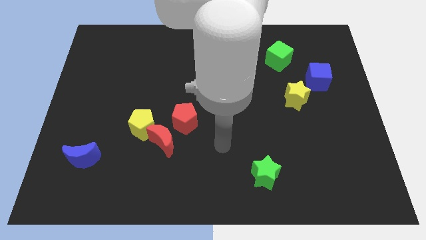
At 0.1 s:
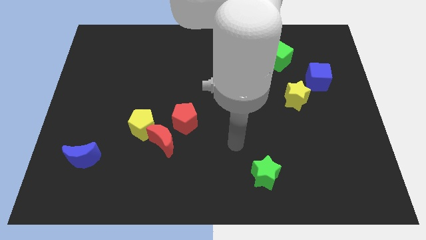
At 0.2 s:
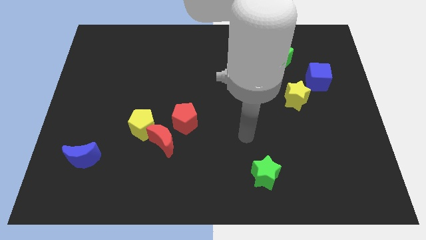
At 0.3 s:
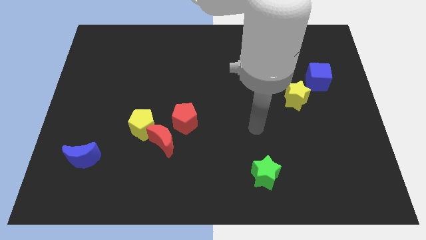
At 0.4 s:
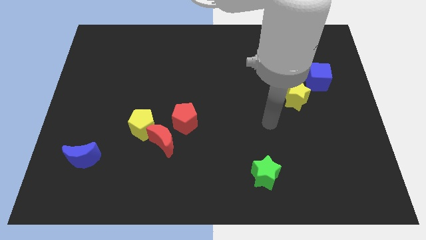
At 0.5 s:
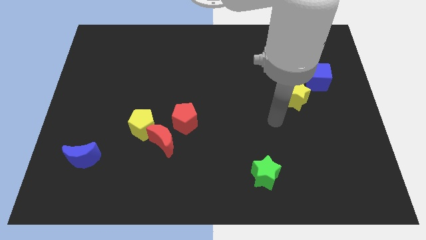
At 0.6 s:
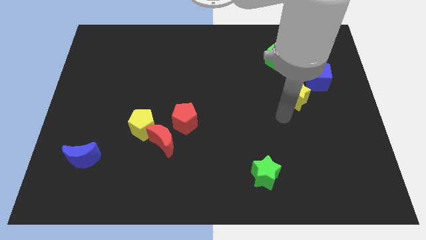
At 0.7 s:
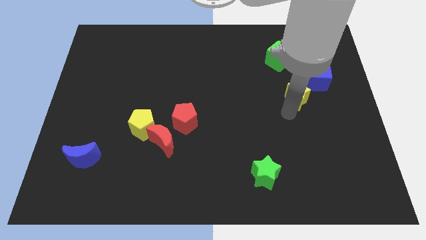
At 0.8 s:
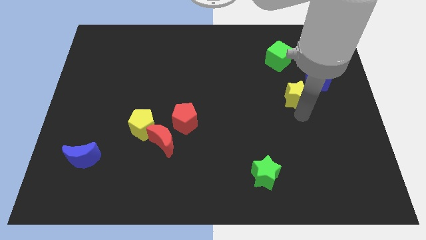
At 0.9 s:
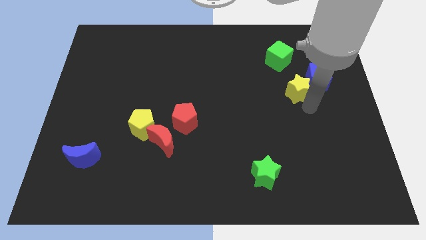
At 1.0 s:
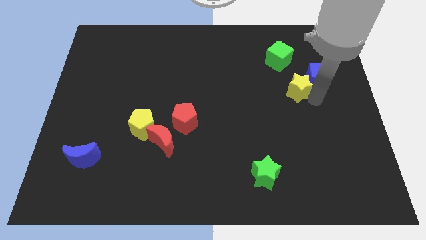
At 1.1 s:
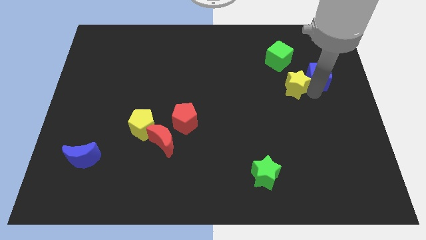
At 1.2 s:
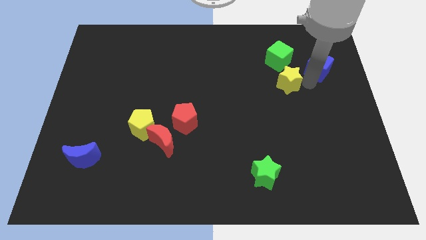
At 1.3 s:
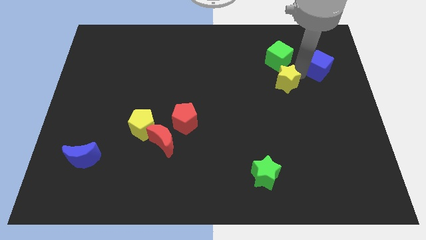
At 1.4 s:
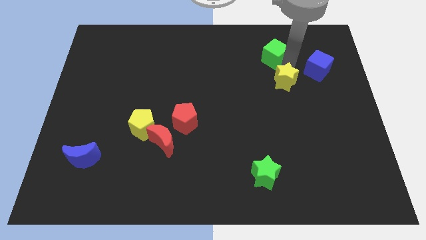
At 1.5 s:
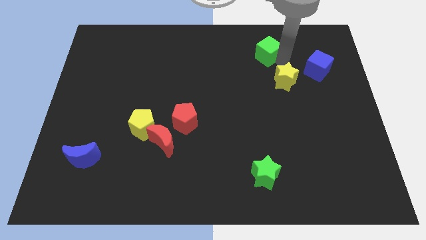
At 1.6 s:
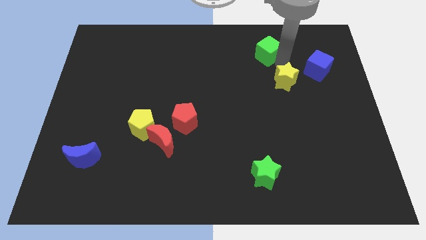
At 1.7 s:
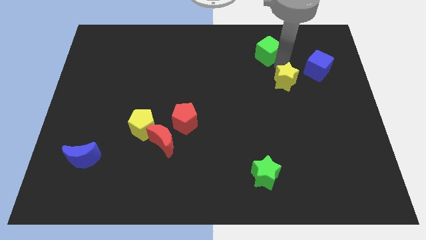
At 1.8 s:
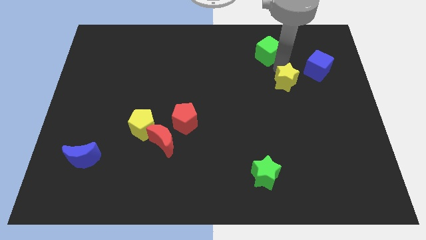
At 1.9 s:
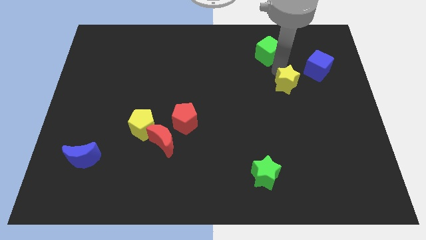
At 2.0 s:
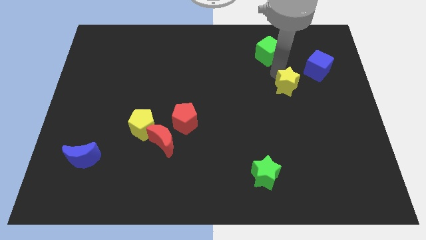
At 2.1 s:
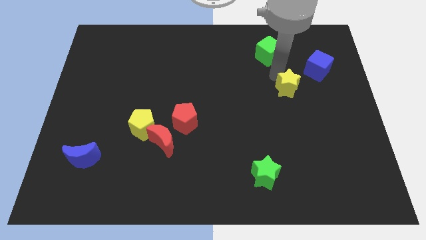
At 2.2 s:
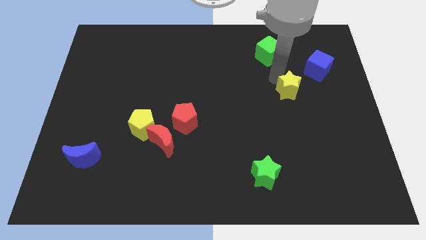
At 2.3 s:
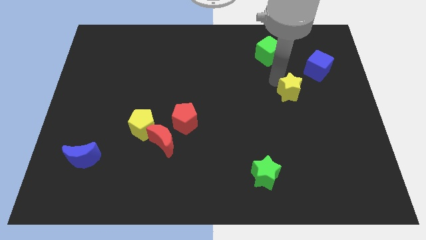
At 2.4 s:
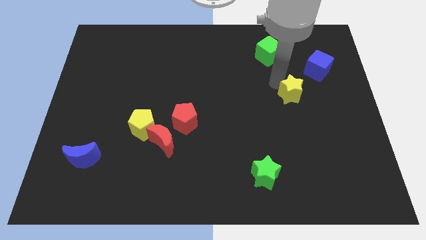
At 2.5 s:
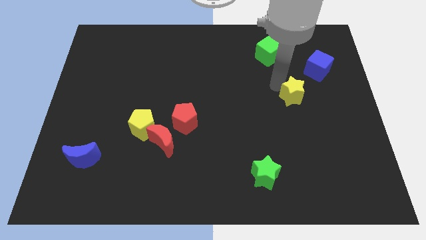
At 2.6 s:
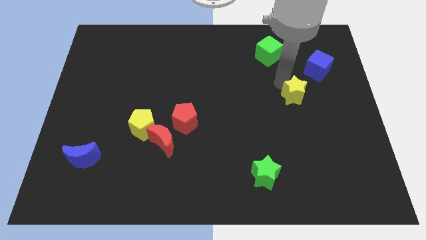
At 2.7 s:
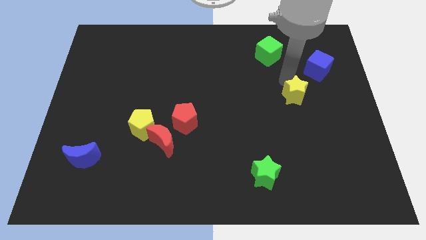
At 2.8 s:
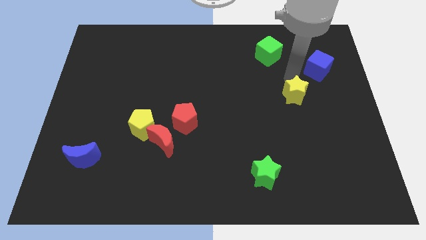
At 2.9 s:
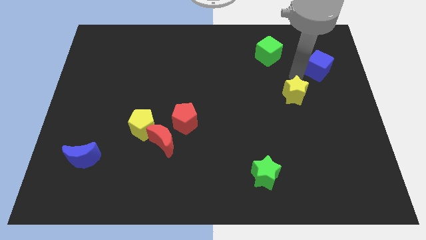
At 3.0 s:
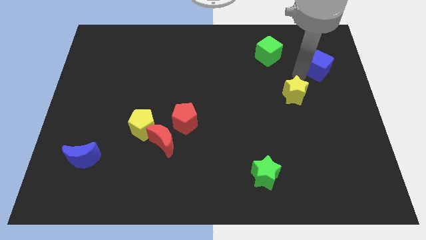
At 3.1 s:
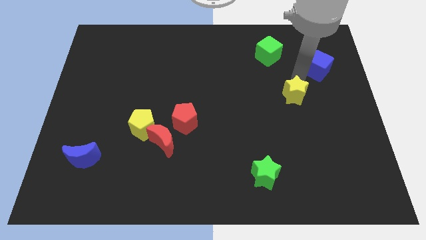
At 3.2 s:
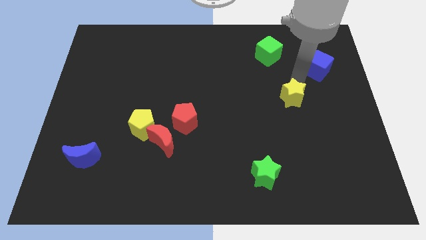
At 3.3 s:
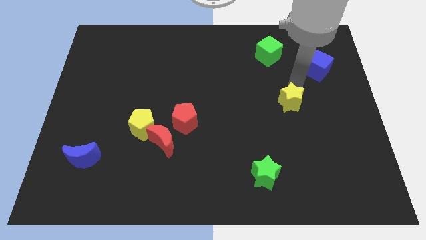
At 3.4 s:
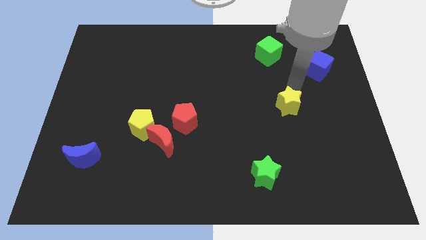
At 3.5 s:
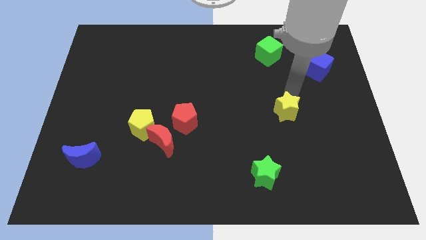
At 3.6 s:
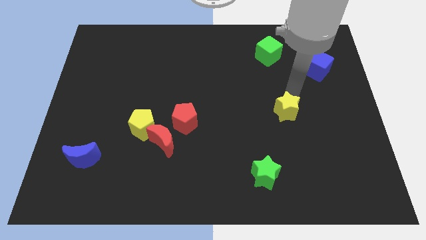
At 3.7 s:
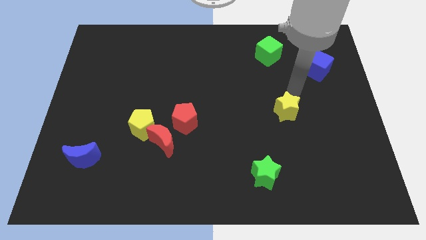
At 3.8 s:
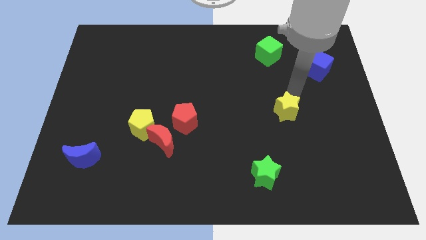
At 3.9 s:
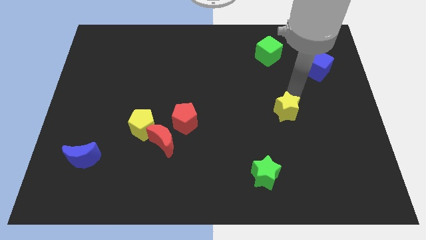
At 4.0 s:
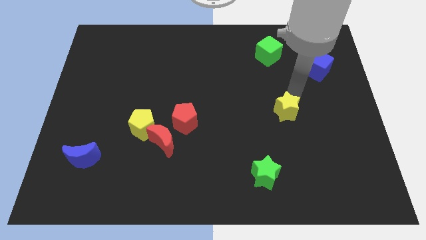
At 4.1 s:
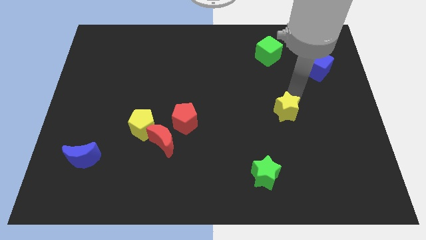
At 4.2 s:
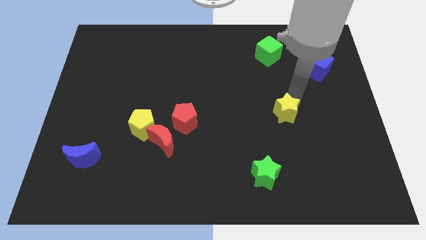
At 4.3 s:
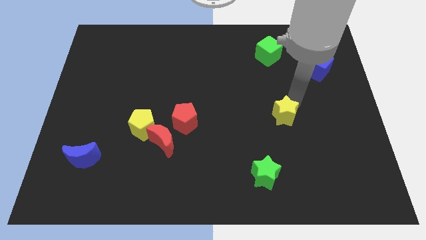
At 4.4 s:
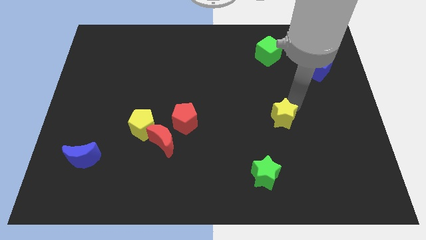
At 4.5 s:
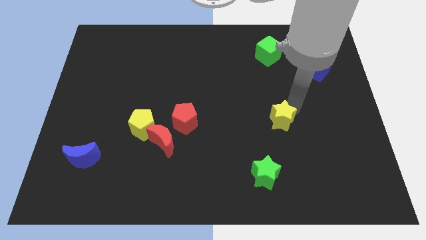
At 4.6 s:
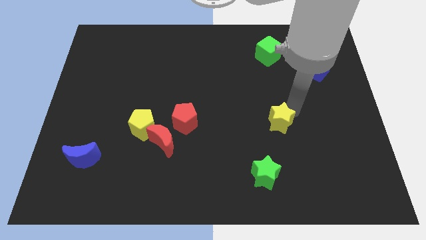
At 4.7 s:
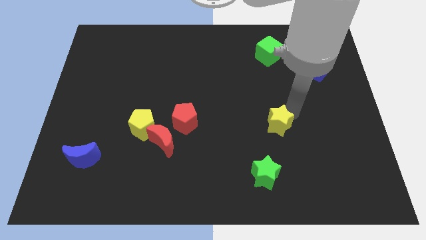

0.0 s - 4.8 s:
put the yellow star above the green star

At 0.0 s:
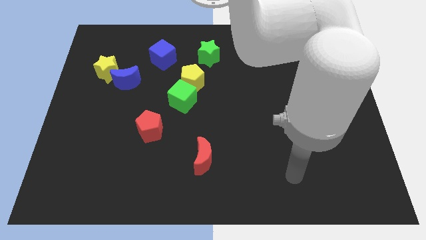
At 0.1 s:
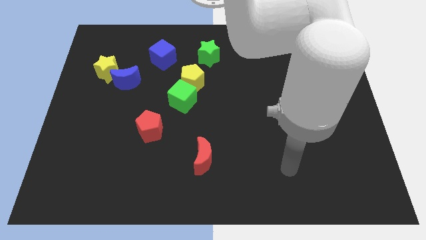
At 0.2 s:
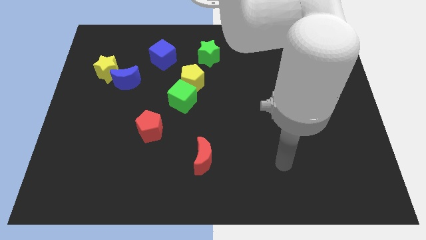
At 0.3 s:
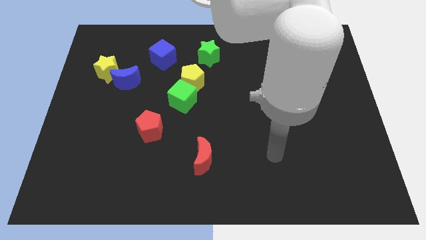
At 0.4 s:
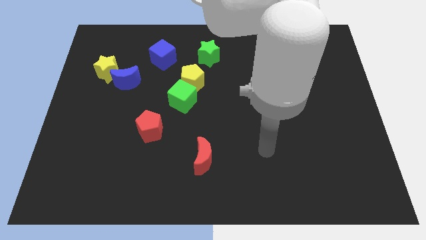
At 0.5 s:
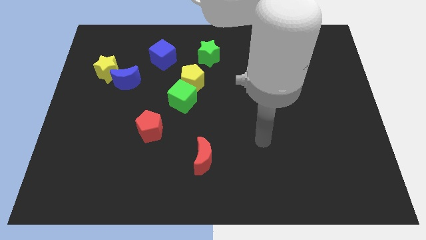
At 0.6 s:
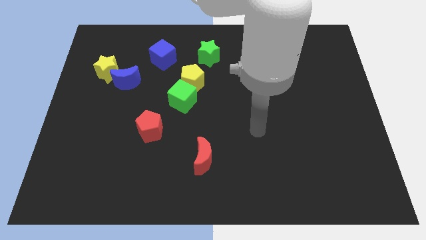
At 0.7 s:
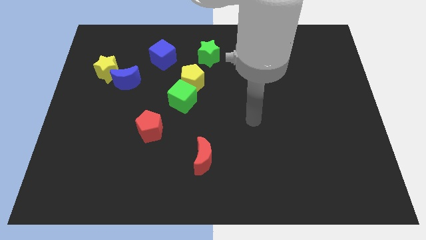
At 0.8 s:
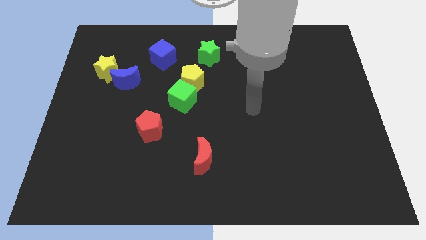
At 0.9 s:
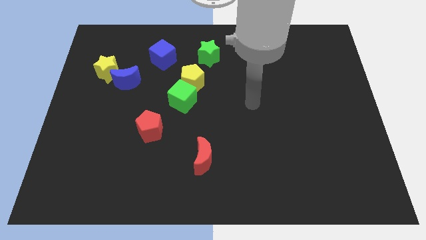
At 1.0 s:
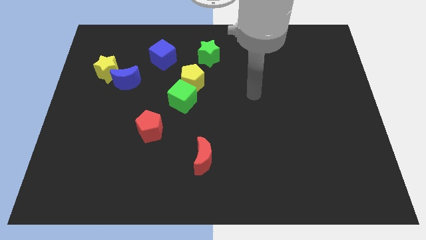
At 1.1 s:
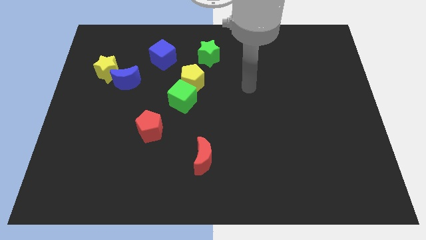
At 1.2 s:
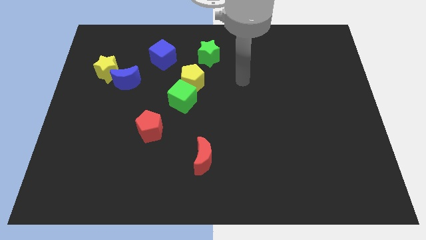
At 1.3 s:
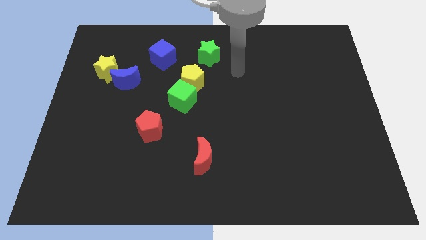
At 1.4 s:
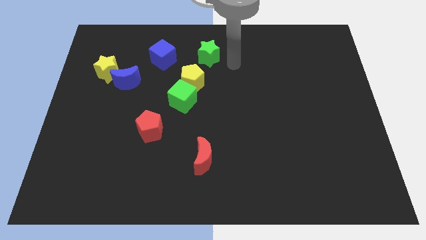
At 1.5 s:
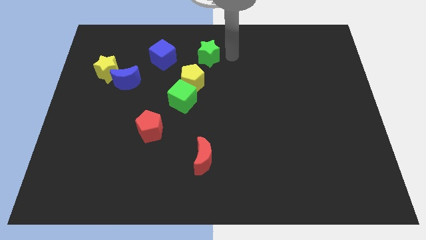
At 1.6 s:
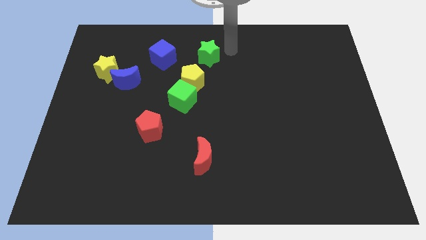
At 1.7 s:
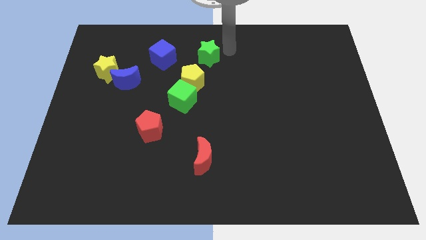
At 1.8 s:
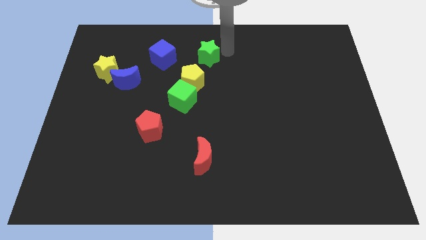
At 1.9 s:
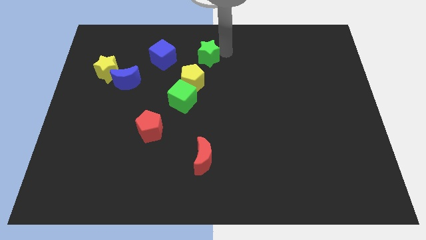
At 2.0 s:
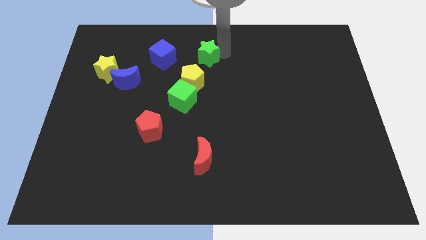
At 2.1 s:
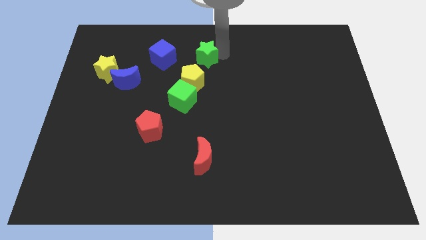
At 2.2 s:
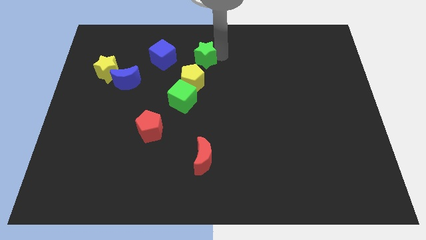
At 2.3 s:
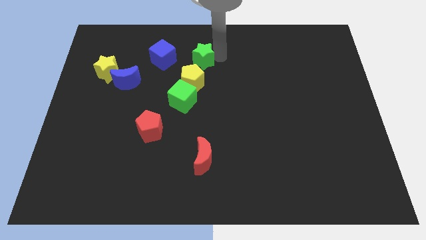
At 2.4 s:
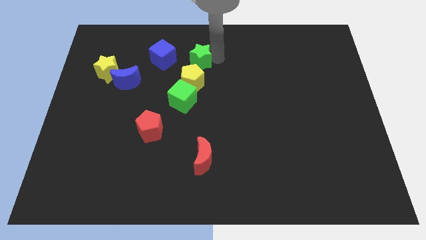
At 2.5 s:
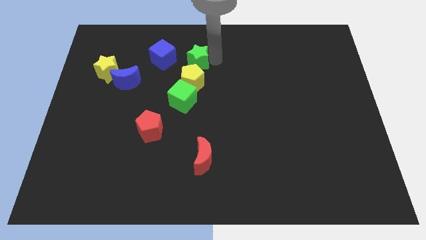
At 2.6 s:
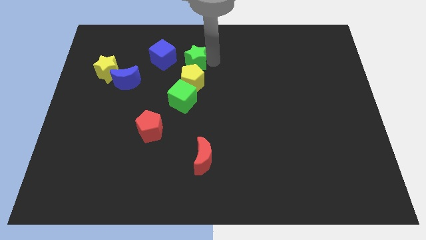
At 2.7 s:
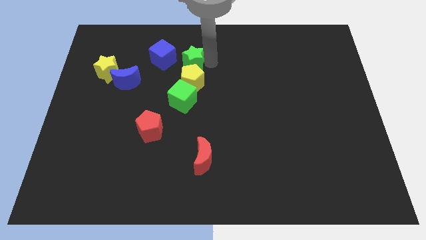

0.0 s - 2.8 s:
slide the green star diagonally up and to the left of the yellow pentagon
